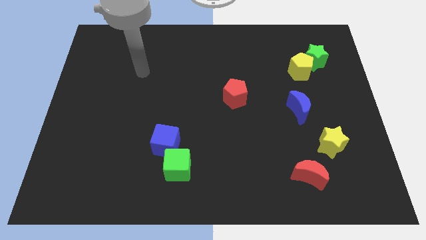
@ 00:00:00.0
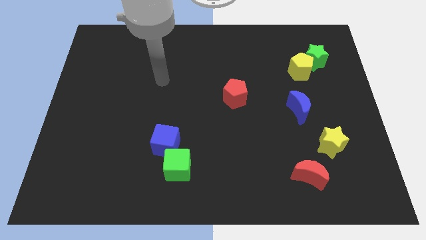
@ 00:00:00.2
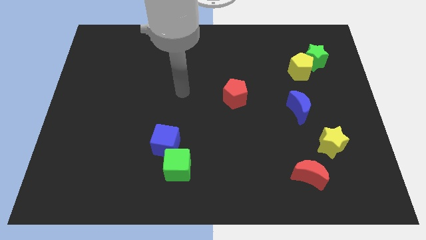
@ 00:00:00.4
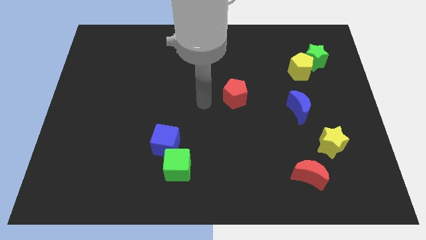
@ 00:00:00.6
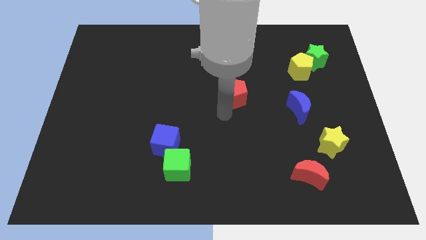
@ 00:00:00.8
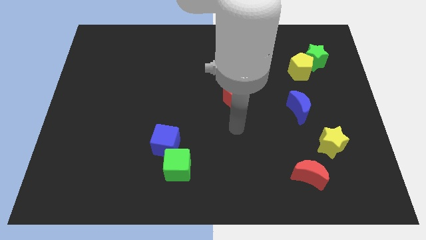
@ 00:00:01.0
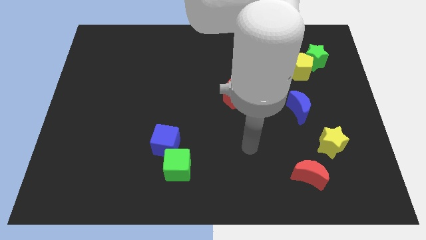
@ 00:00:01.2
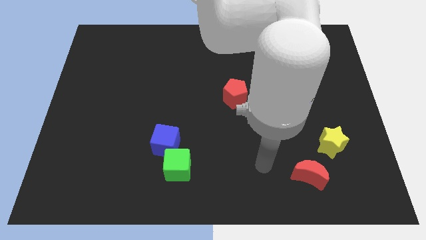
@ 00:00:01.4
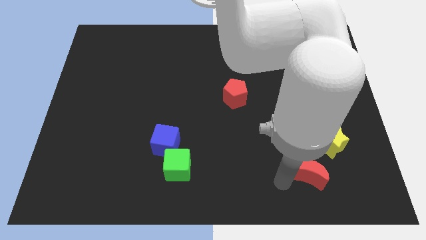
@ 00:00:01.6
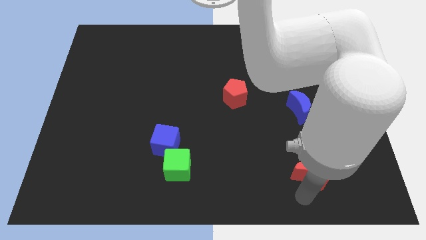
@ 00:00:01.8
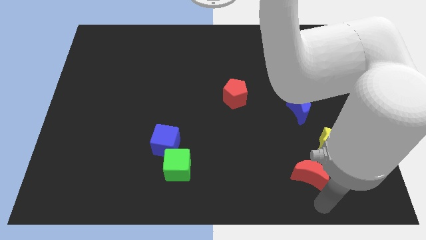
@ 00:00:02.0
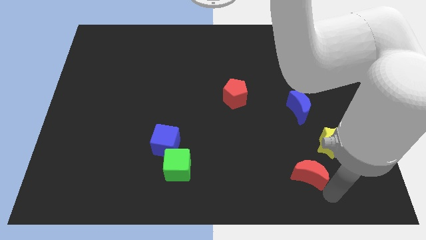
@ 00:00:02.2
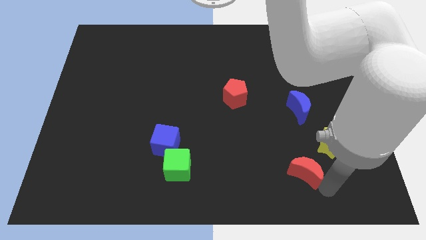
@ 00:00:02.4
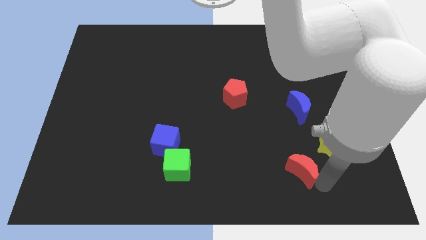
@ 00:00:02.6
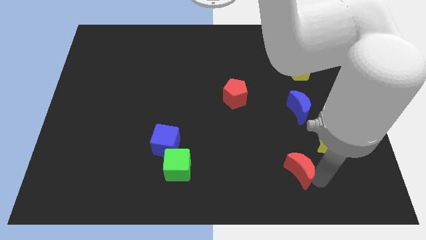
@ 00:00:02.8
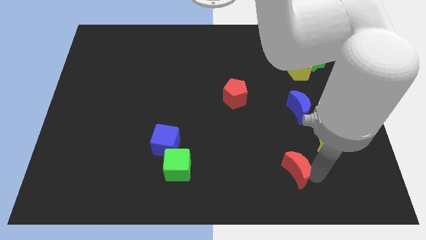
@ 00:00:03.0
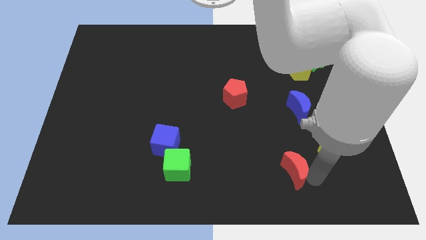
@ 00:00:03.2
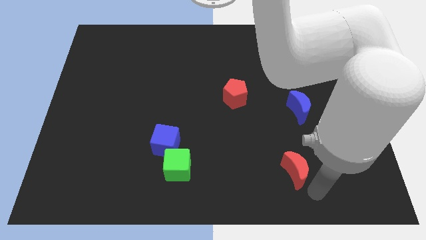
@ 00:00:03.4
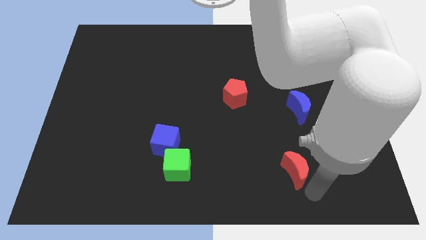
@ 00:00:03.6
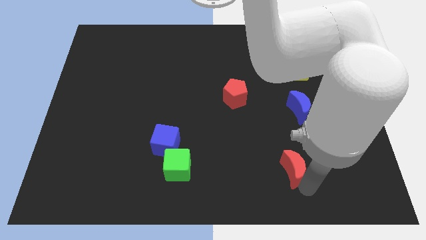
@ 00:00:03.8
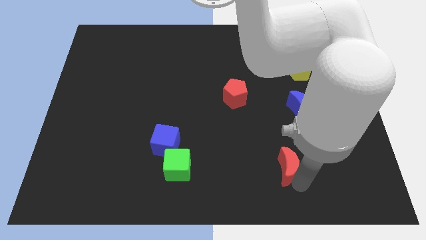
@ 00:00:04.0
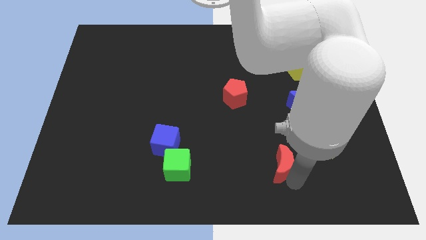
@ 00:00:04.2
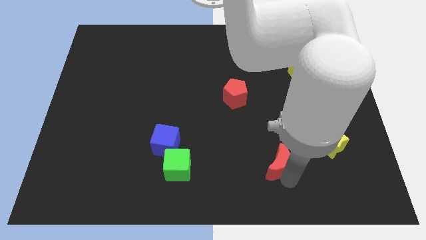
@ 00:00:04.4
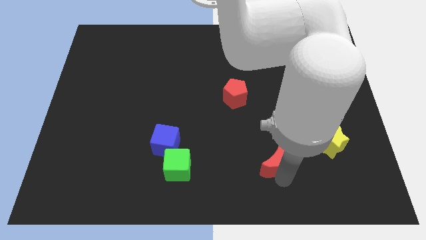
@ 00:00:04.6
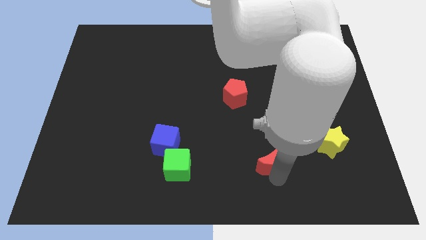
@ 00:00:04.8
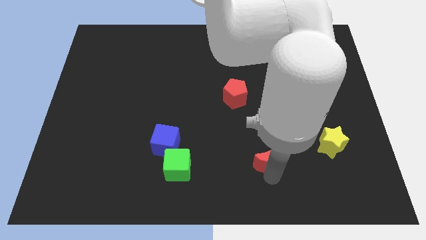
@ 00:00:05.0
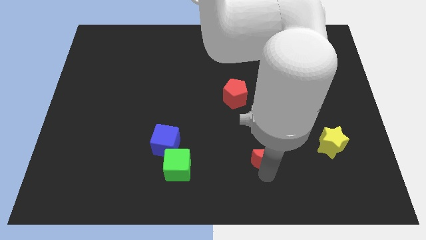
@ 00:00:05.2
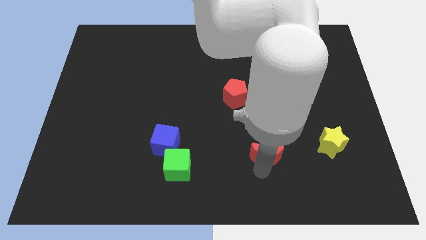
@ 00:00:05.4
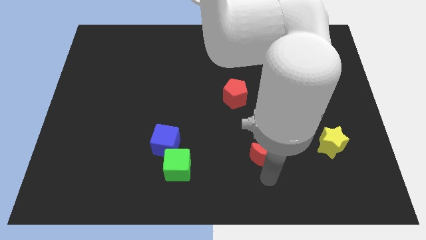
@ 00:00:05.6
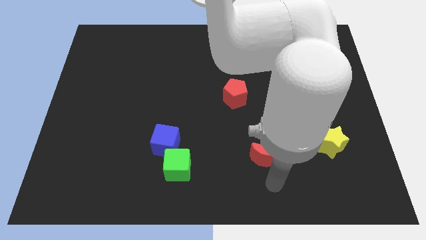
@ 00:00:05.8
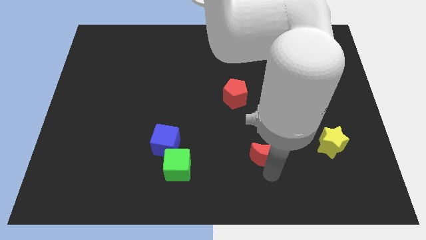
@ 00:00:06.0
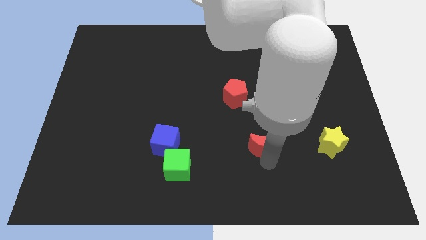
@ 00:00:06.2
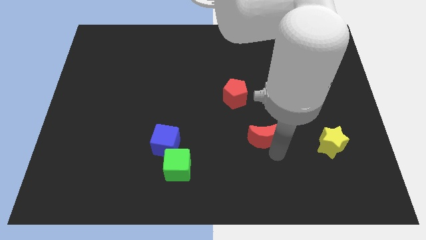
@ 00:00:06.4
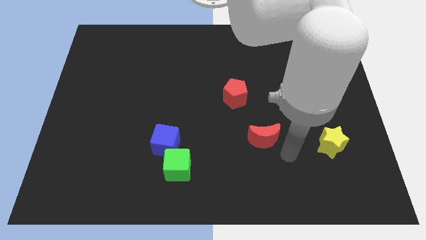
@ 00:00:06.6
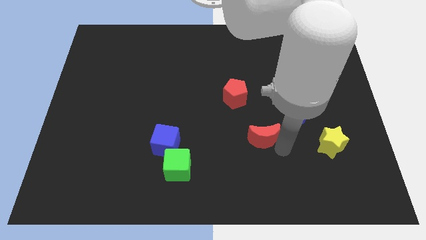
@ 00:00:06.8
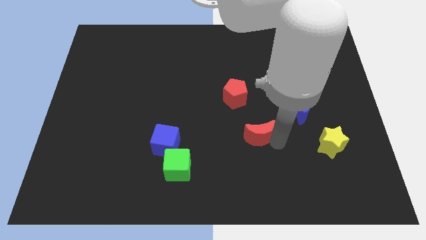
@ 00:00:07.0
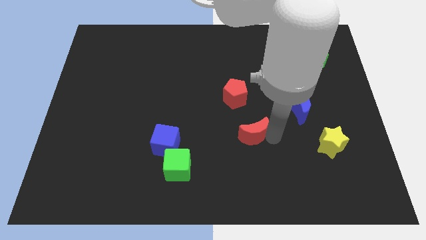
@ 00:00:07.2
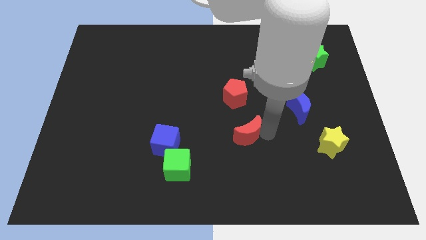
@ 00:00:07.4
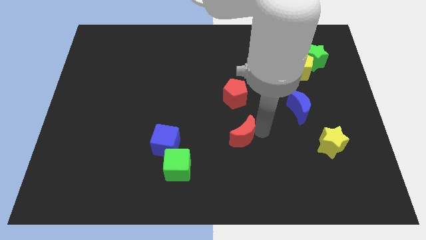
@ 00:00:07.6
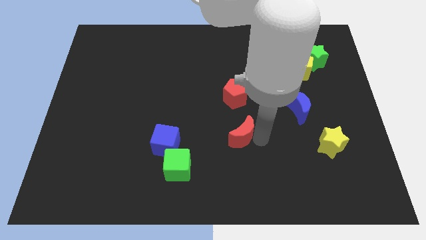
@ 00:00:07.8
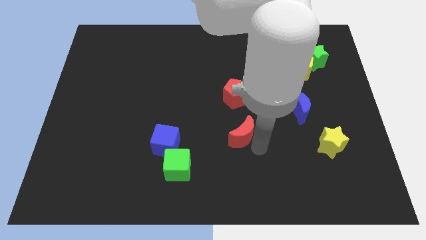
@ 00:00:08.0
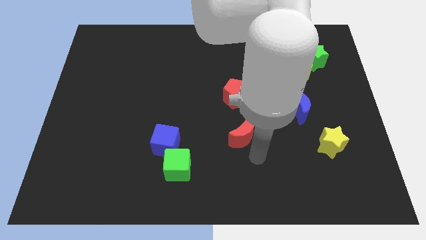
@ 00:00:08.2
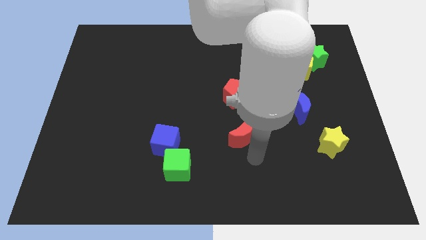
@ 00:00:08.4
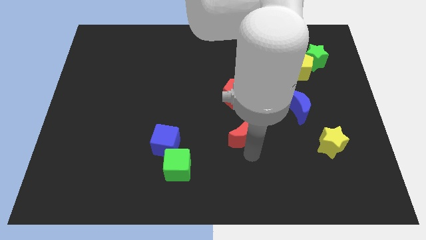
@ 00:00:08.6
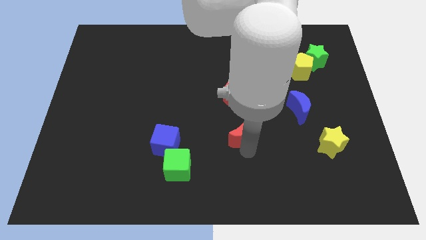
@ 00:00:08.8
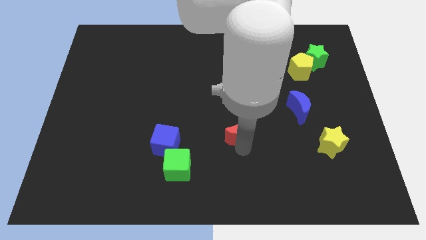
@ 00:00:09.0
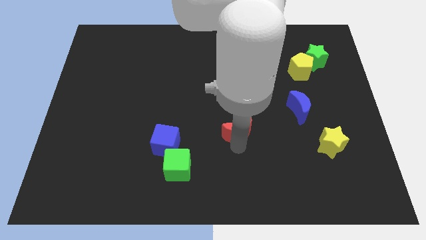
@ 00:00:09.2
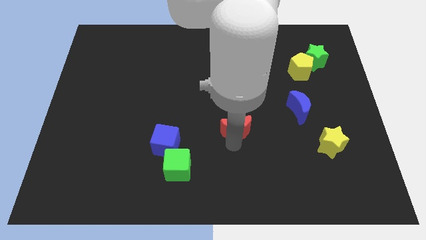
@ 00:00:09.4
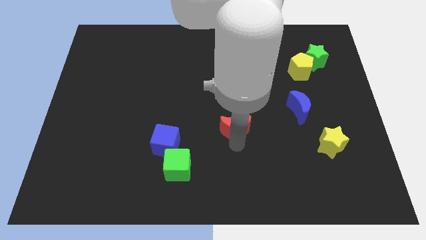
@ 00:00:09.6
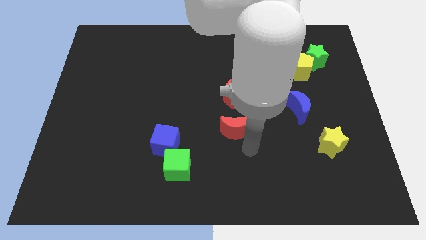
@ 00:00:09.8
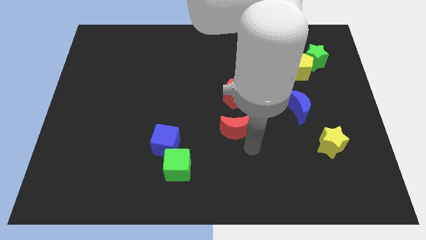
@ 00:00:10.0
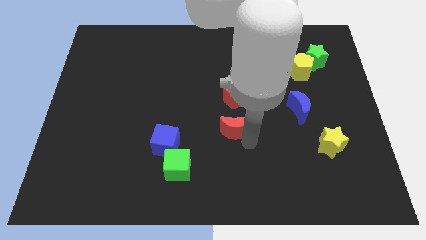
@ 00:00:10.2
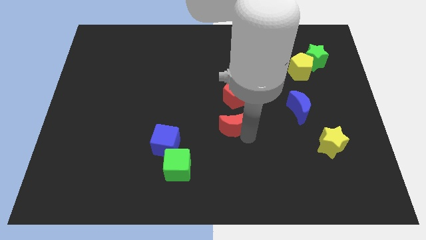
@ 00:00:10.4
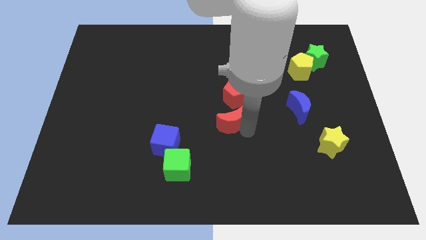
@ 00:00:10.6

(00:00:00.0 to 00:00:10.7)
move the red moon diagonally upwards and to the left

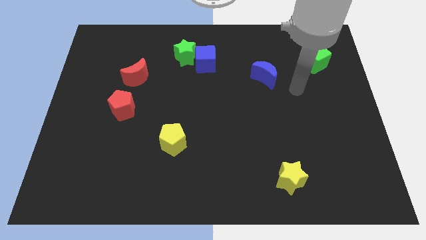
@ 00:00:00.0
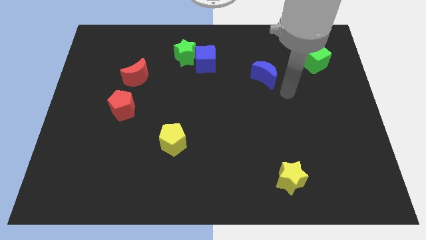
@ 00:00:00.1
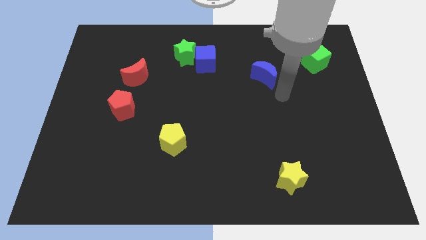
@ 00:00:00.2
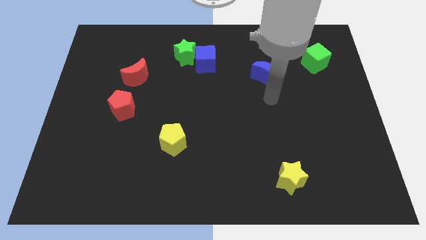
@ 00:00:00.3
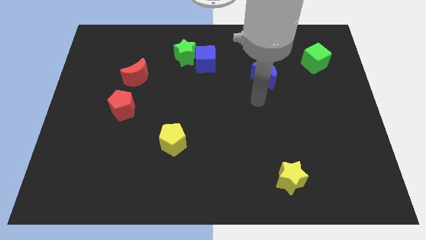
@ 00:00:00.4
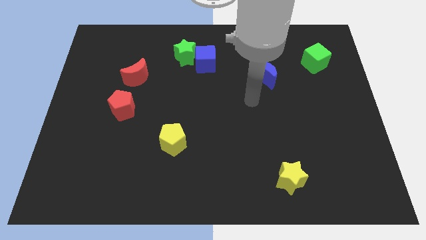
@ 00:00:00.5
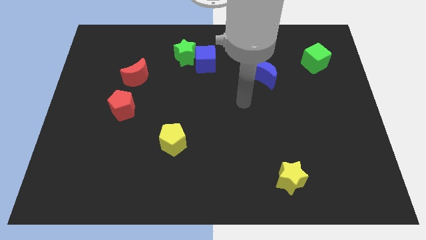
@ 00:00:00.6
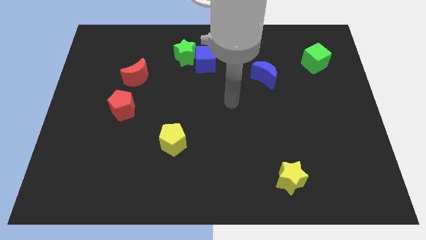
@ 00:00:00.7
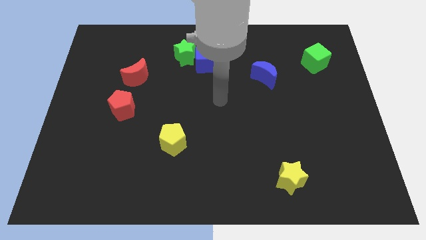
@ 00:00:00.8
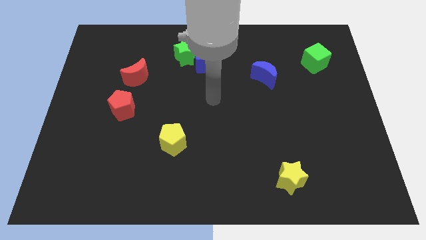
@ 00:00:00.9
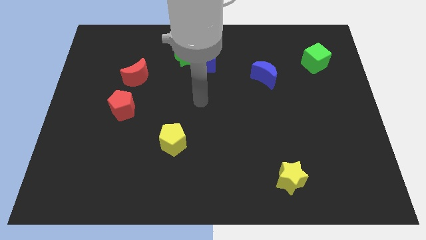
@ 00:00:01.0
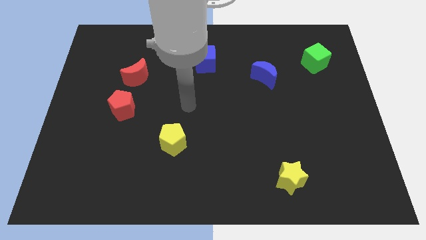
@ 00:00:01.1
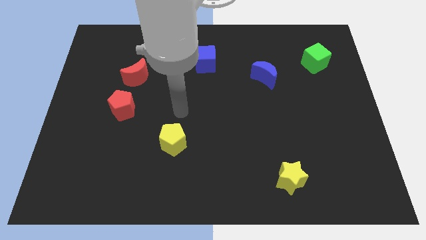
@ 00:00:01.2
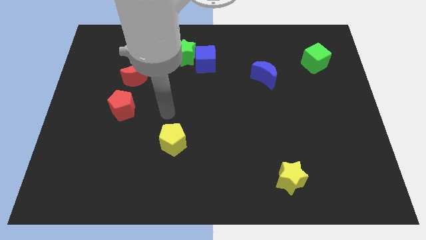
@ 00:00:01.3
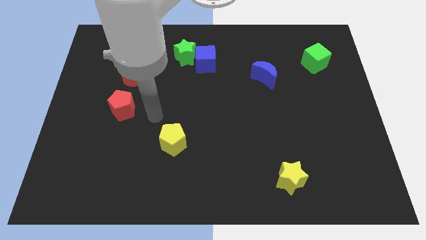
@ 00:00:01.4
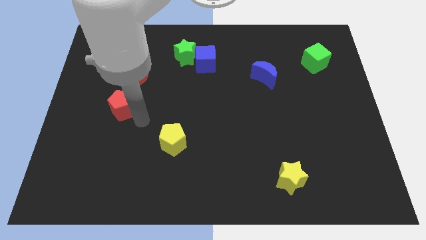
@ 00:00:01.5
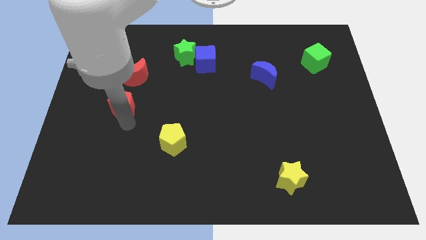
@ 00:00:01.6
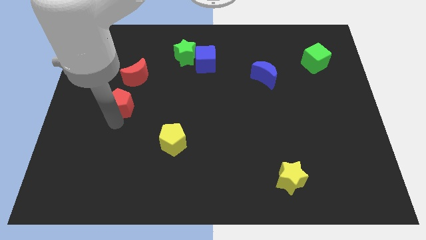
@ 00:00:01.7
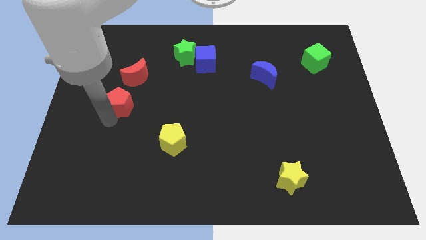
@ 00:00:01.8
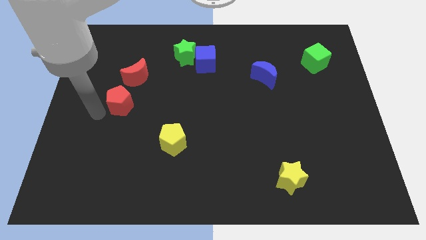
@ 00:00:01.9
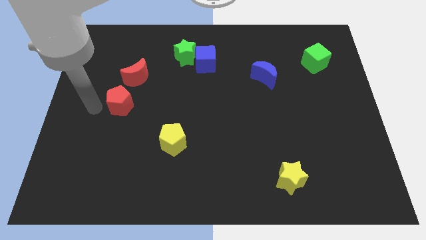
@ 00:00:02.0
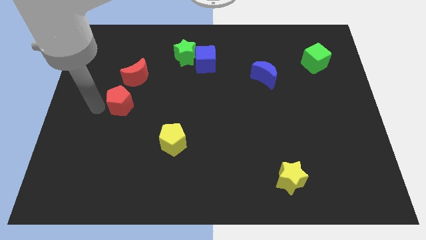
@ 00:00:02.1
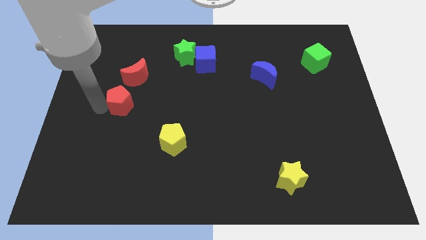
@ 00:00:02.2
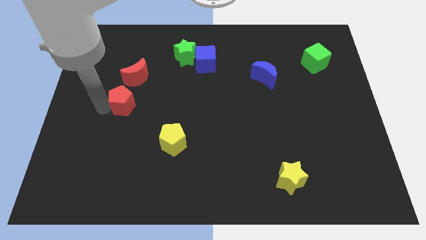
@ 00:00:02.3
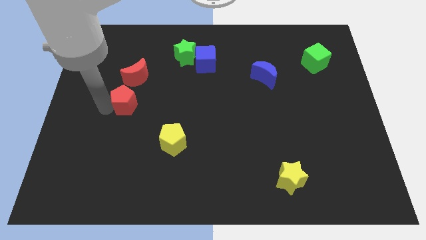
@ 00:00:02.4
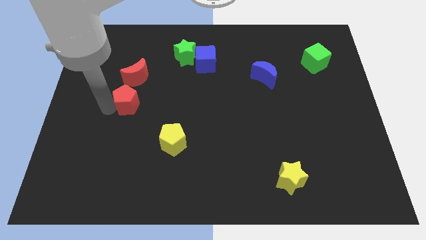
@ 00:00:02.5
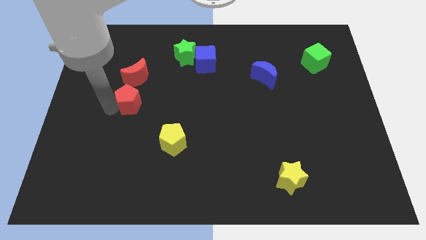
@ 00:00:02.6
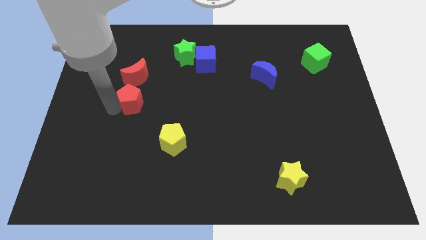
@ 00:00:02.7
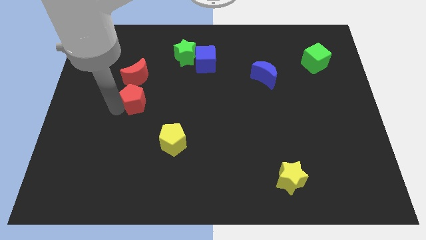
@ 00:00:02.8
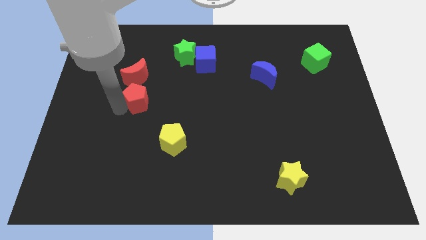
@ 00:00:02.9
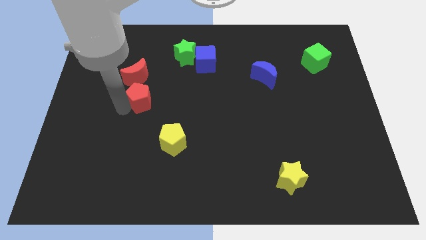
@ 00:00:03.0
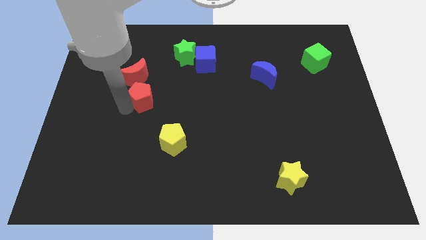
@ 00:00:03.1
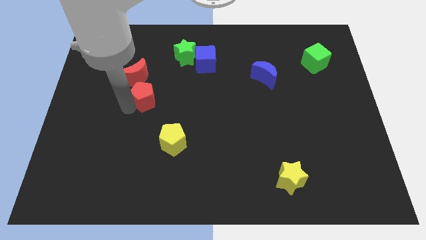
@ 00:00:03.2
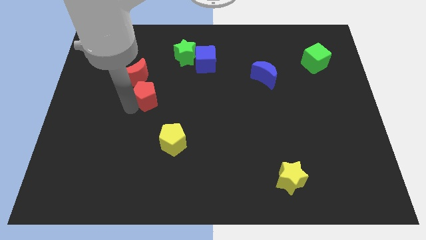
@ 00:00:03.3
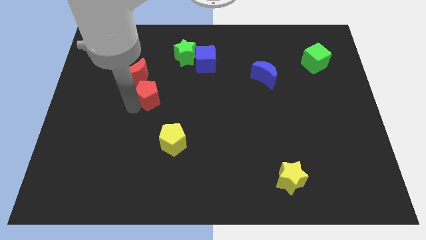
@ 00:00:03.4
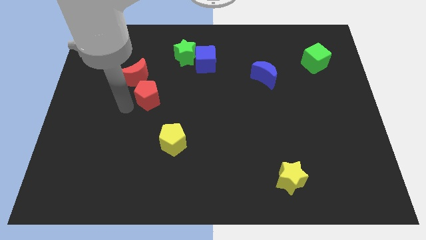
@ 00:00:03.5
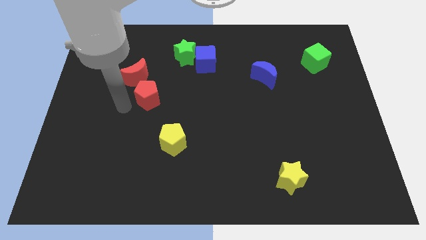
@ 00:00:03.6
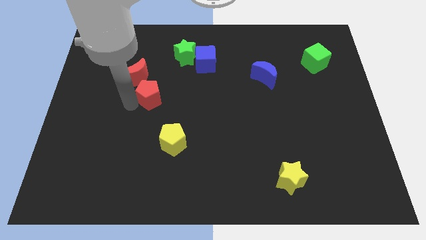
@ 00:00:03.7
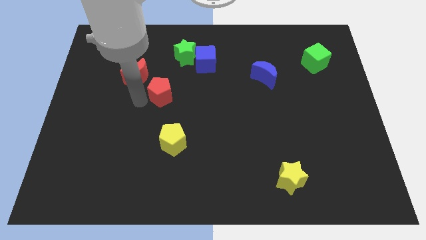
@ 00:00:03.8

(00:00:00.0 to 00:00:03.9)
slightly push the red pentagon up and to the right
